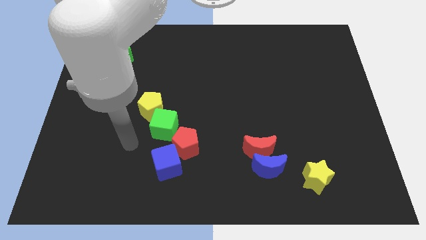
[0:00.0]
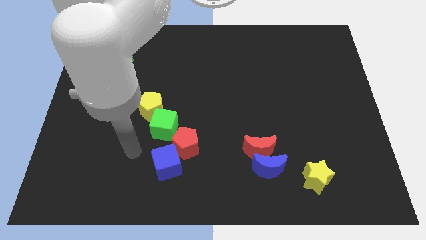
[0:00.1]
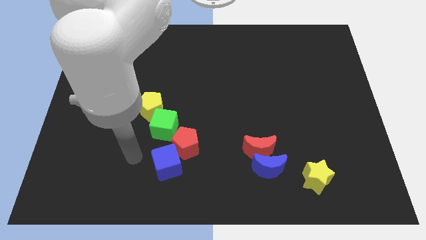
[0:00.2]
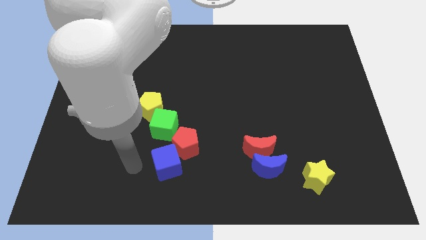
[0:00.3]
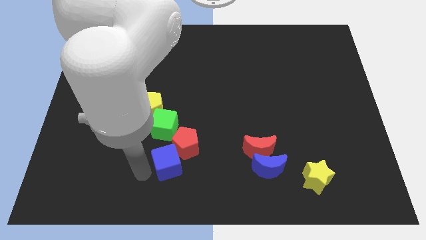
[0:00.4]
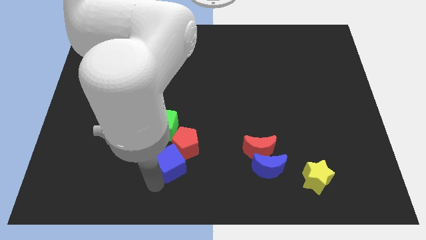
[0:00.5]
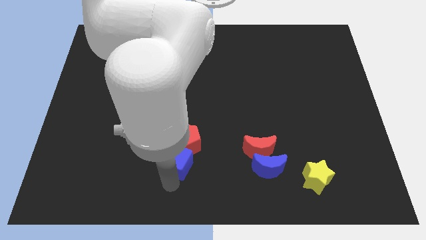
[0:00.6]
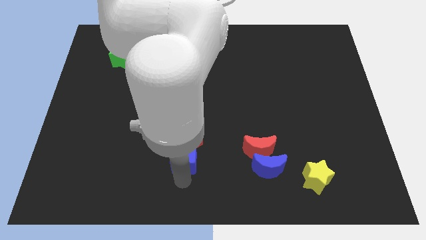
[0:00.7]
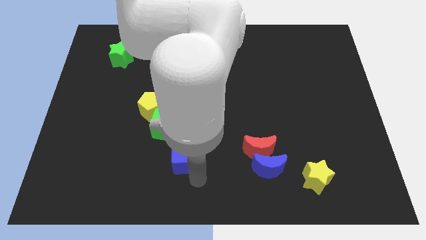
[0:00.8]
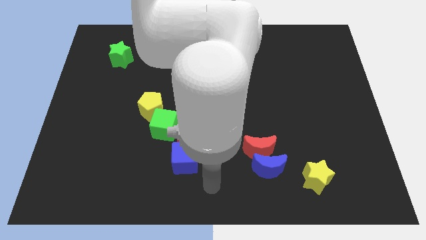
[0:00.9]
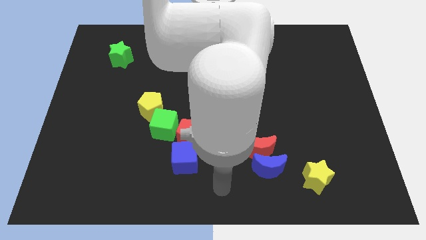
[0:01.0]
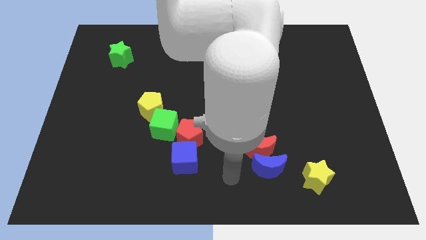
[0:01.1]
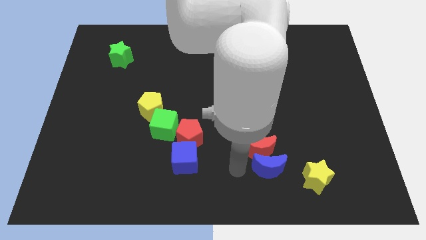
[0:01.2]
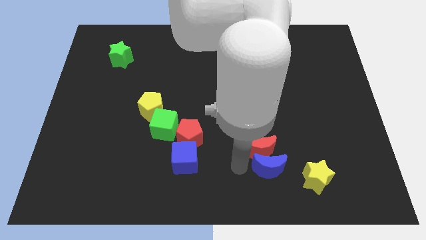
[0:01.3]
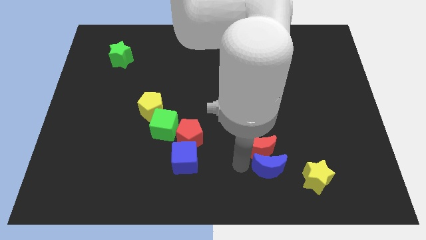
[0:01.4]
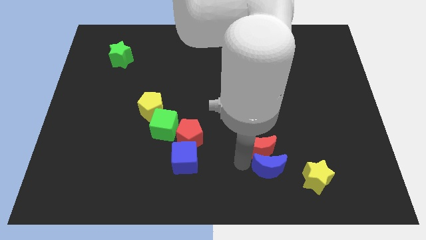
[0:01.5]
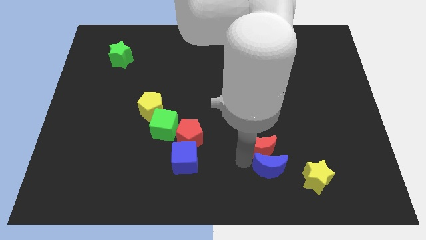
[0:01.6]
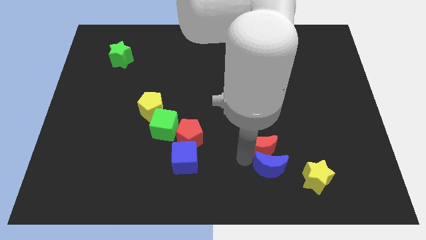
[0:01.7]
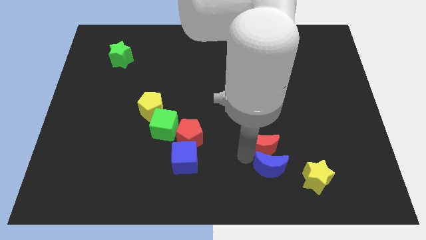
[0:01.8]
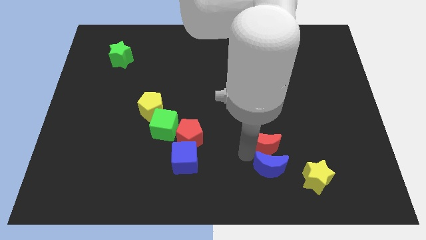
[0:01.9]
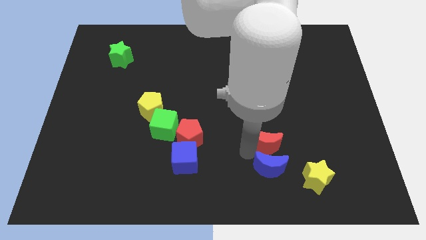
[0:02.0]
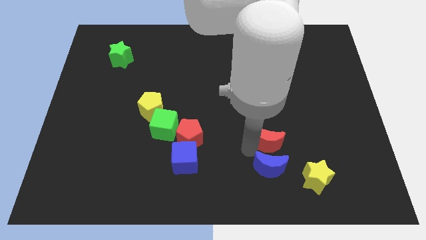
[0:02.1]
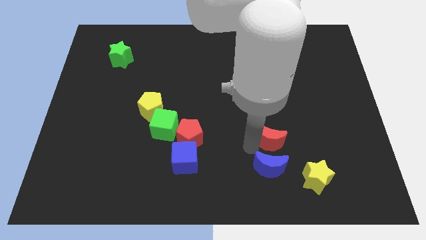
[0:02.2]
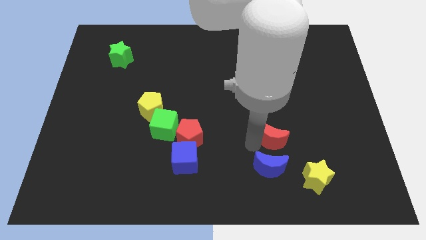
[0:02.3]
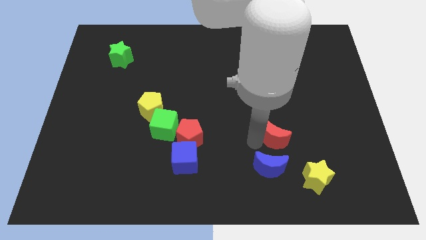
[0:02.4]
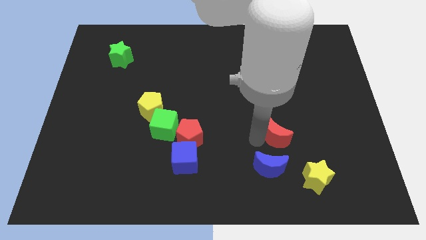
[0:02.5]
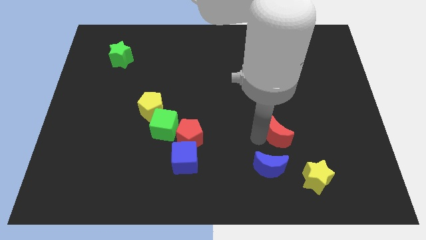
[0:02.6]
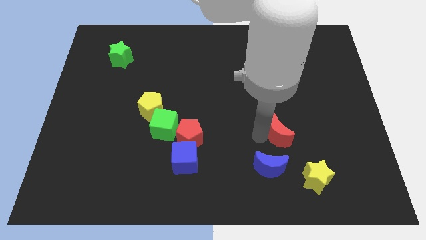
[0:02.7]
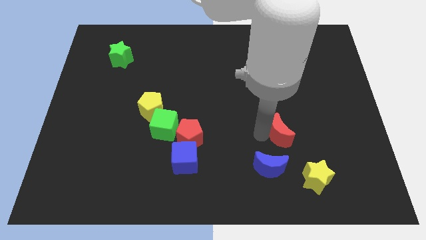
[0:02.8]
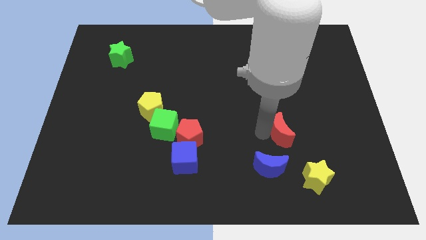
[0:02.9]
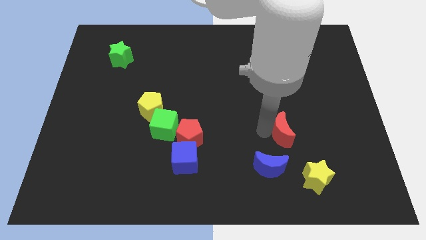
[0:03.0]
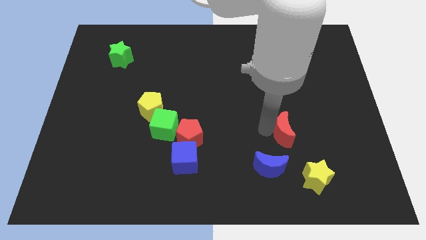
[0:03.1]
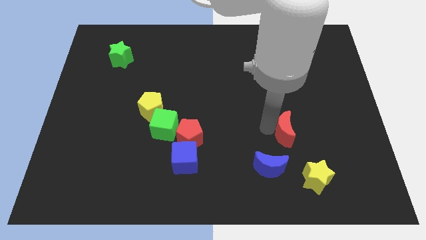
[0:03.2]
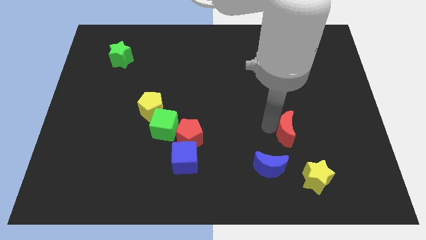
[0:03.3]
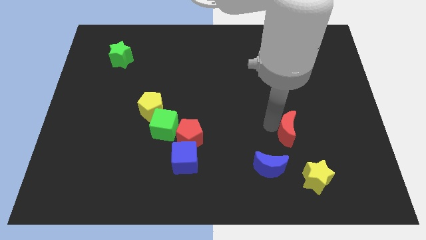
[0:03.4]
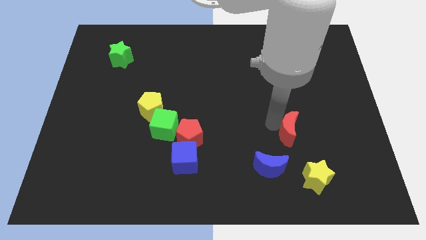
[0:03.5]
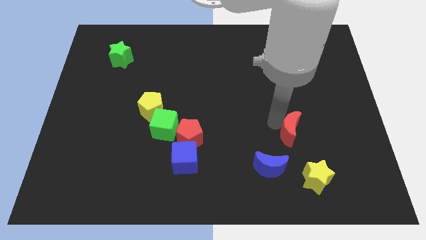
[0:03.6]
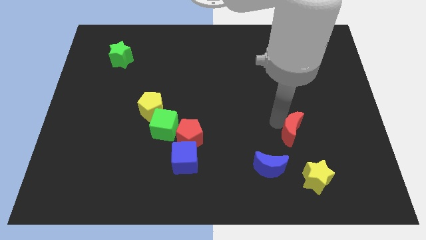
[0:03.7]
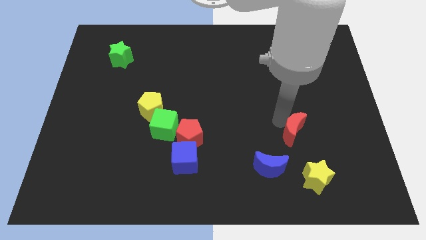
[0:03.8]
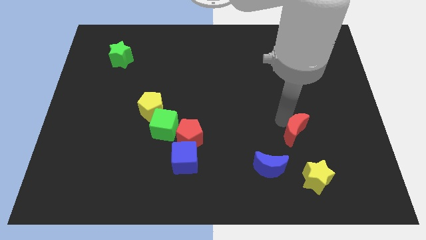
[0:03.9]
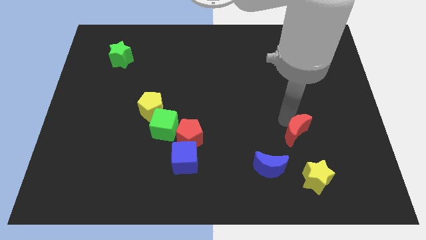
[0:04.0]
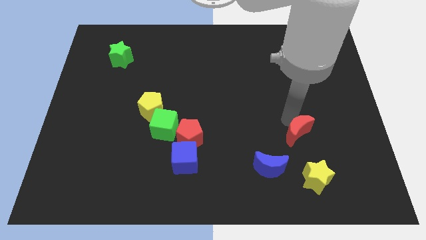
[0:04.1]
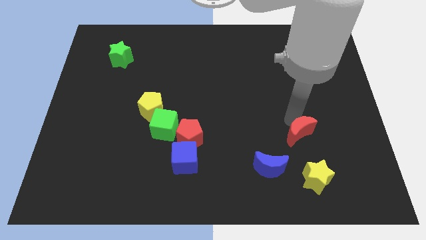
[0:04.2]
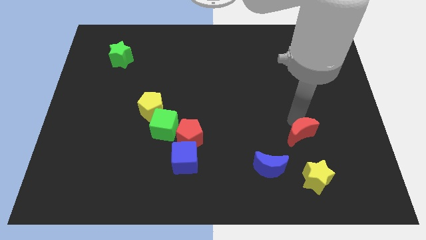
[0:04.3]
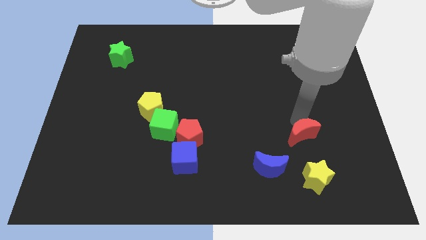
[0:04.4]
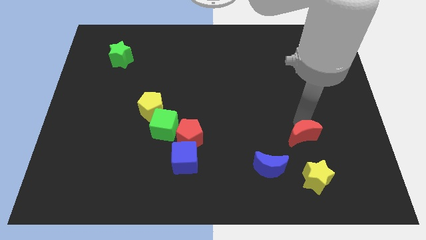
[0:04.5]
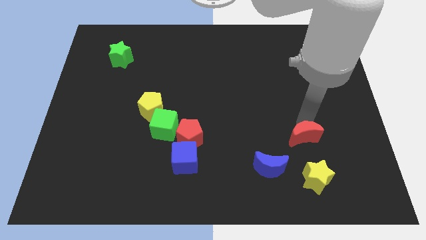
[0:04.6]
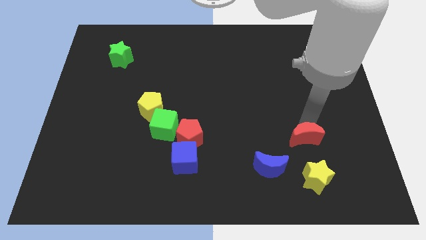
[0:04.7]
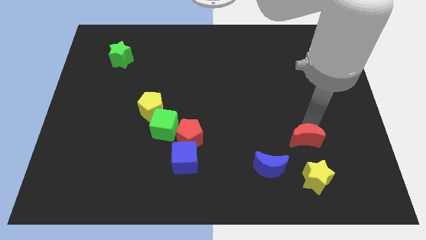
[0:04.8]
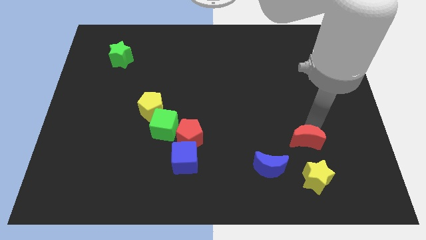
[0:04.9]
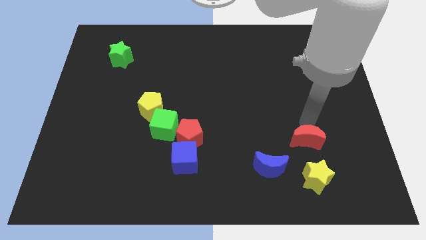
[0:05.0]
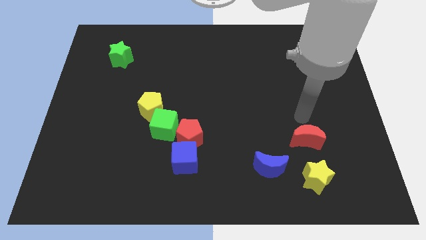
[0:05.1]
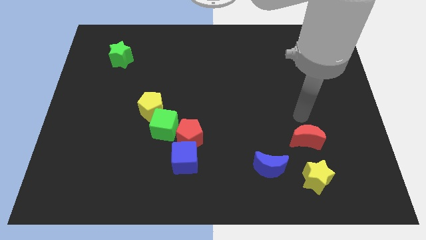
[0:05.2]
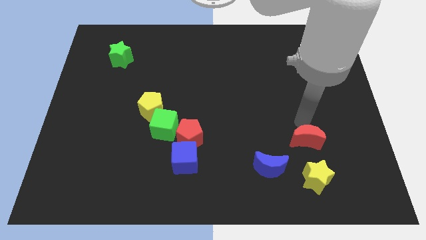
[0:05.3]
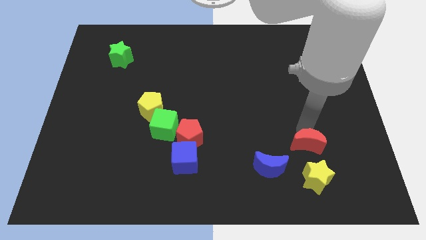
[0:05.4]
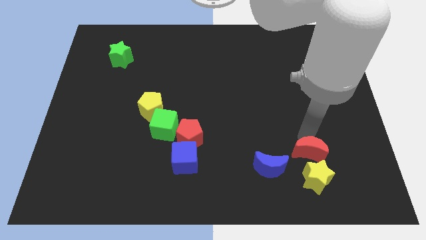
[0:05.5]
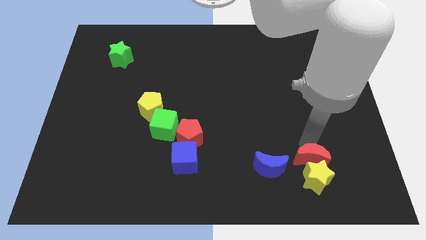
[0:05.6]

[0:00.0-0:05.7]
move the red moon towards the yellow star

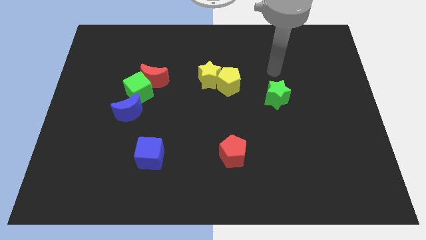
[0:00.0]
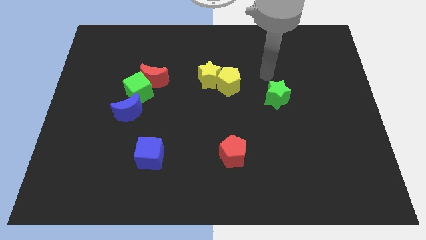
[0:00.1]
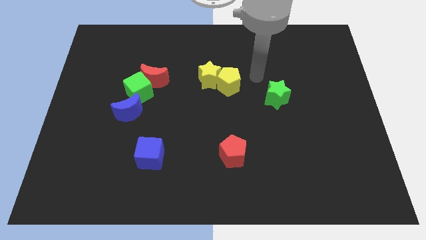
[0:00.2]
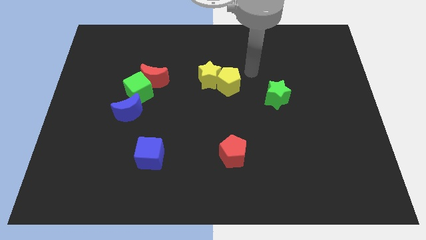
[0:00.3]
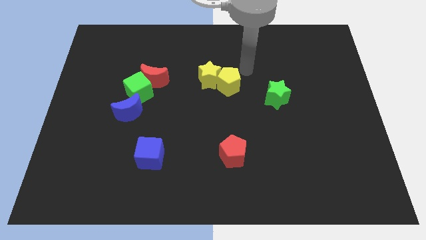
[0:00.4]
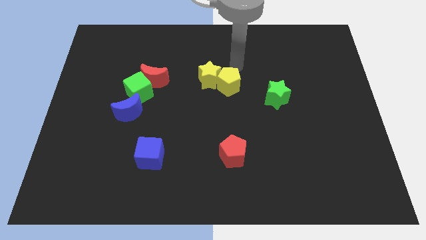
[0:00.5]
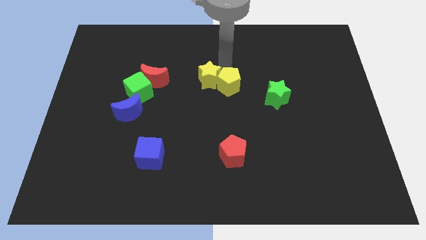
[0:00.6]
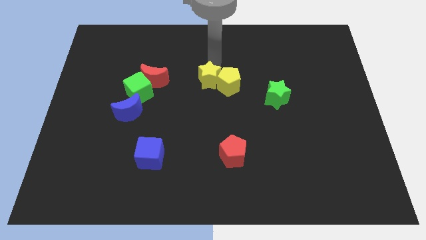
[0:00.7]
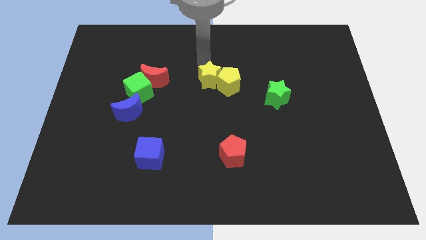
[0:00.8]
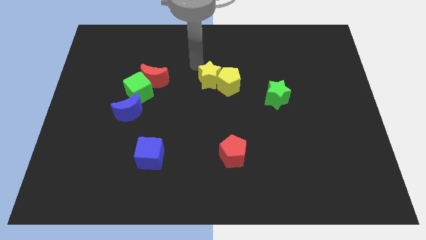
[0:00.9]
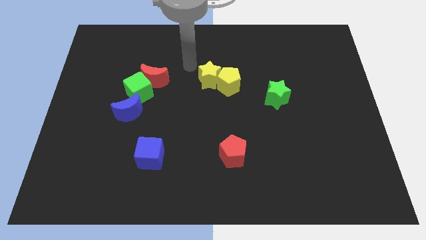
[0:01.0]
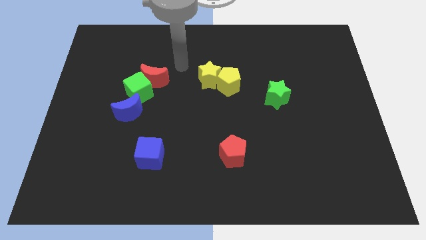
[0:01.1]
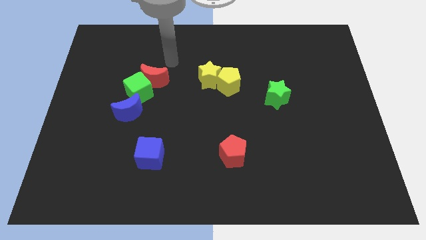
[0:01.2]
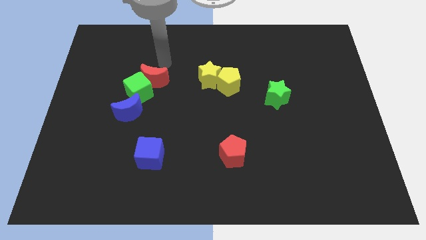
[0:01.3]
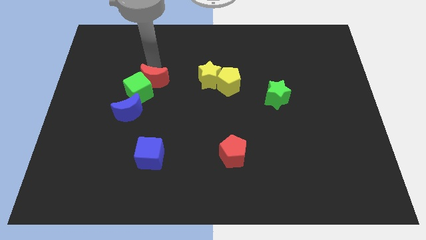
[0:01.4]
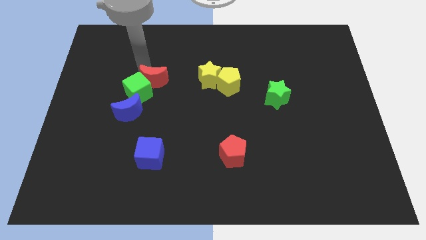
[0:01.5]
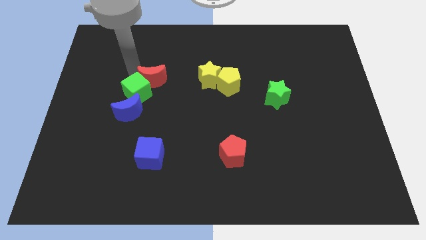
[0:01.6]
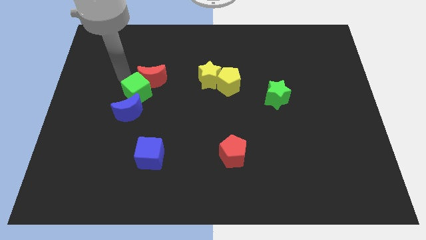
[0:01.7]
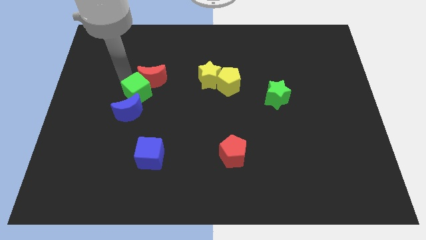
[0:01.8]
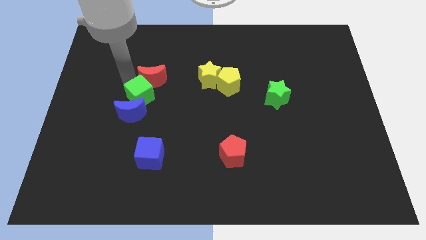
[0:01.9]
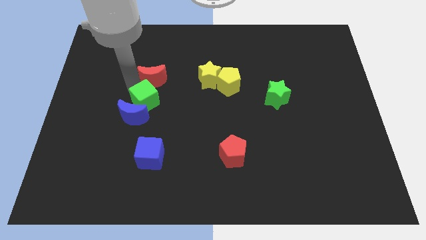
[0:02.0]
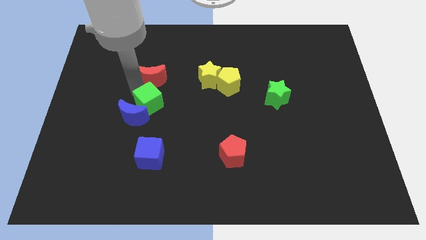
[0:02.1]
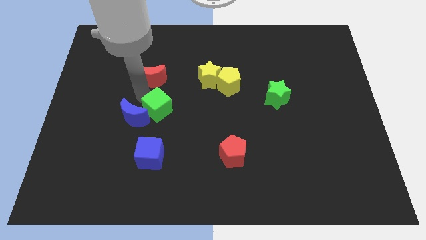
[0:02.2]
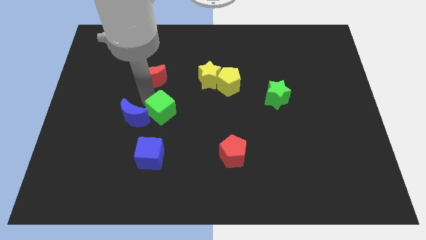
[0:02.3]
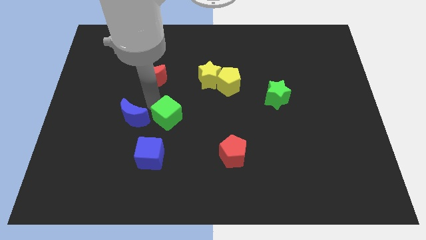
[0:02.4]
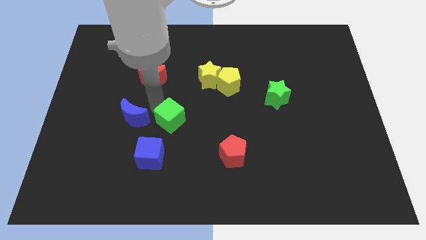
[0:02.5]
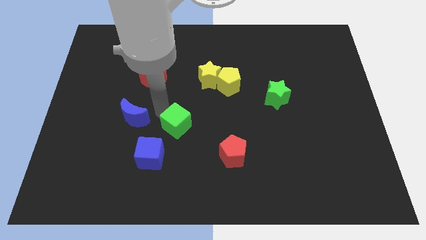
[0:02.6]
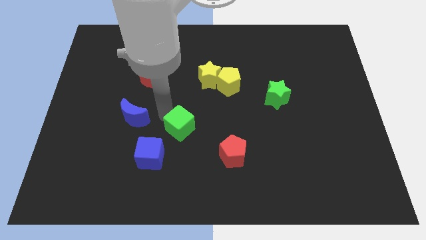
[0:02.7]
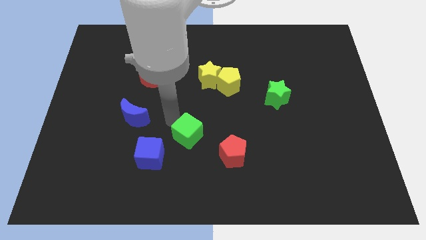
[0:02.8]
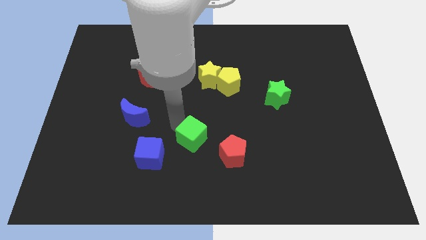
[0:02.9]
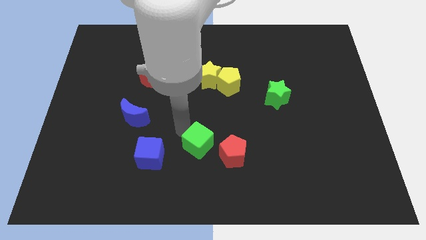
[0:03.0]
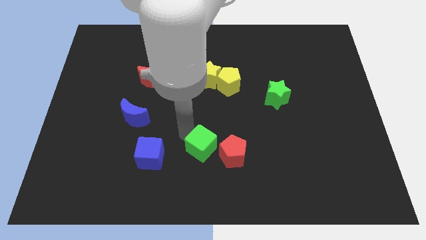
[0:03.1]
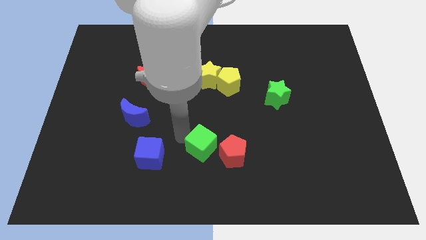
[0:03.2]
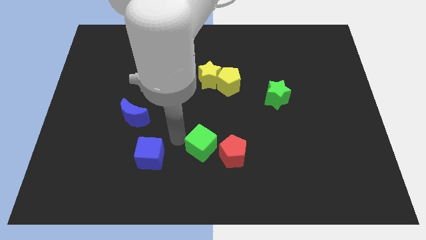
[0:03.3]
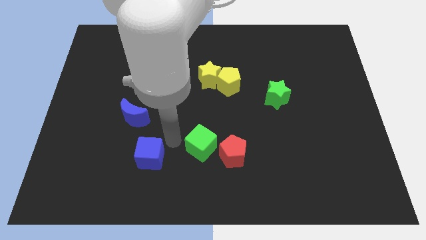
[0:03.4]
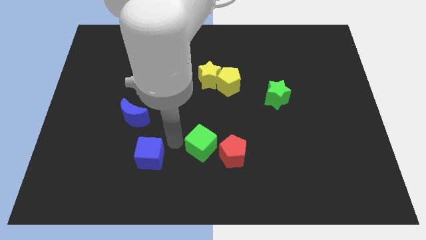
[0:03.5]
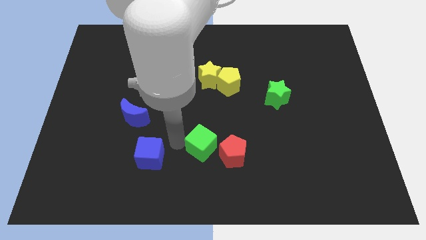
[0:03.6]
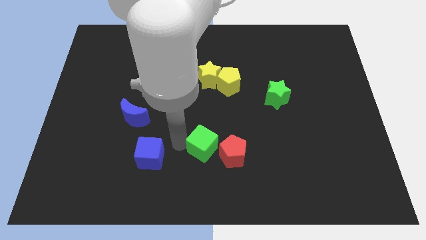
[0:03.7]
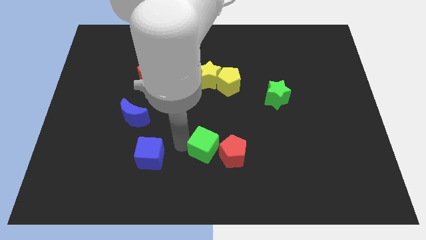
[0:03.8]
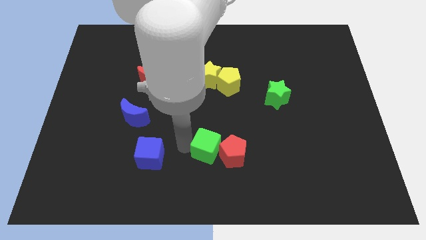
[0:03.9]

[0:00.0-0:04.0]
move the green cube next to the red pentagon
